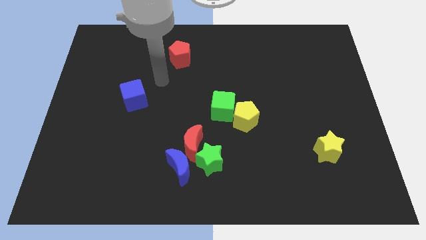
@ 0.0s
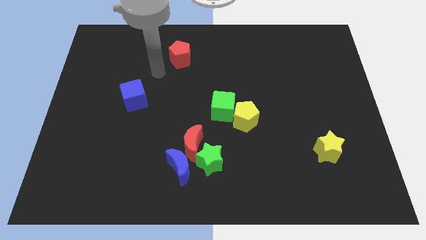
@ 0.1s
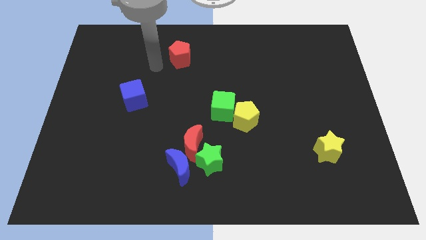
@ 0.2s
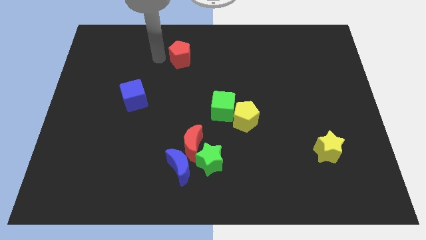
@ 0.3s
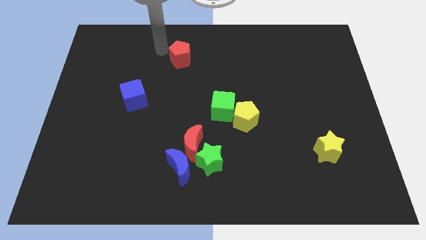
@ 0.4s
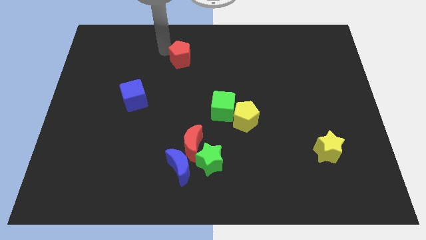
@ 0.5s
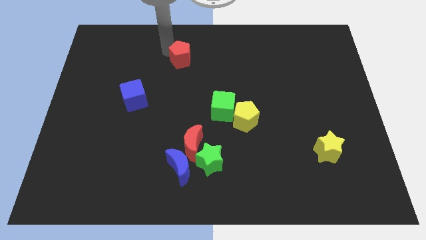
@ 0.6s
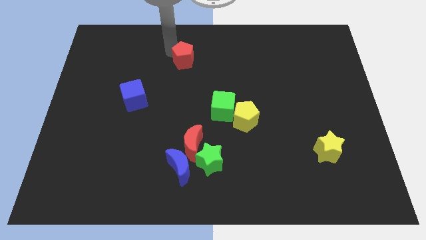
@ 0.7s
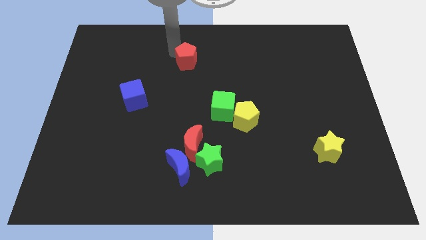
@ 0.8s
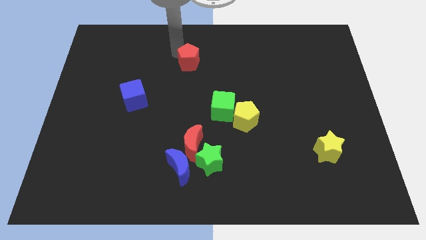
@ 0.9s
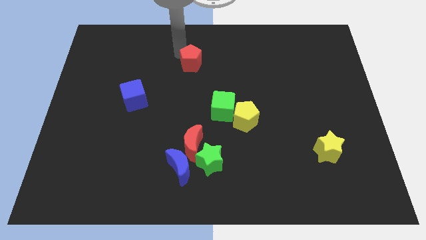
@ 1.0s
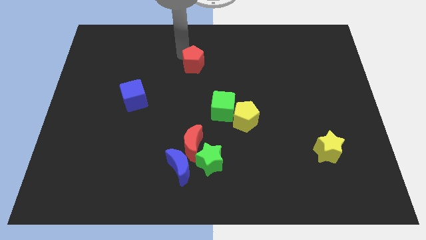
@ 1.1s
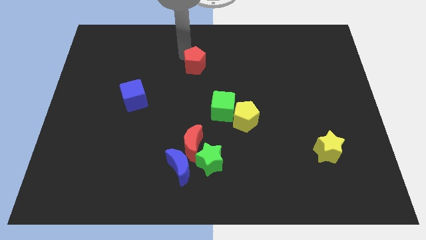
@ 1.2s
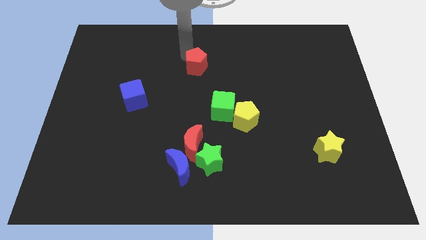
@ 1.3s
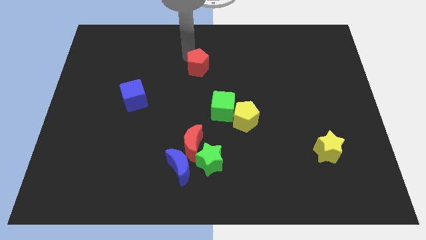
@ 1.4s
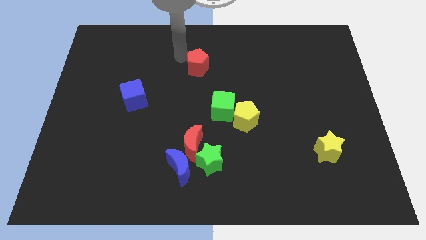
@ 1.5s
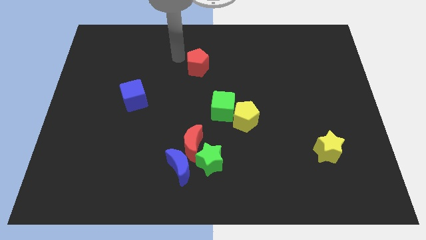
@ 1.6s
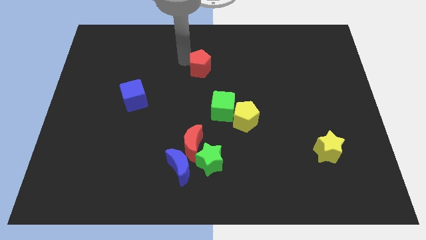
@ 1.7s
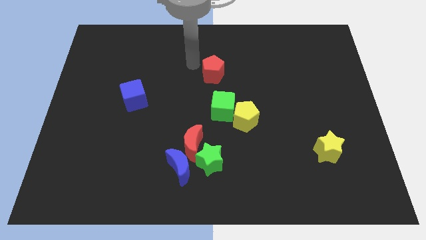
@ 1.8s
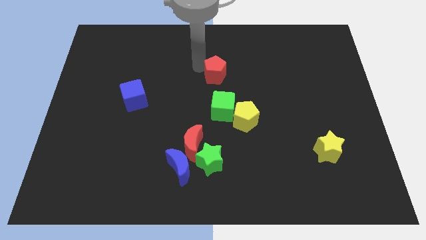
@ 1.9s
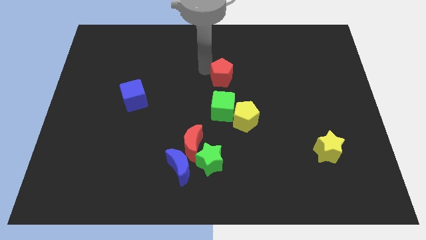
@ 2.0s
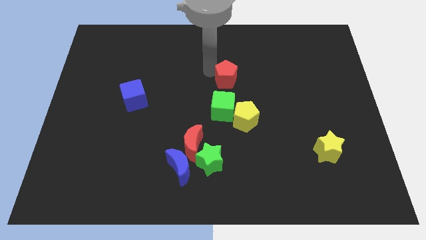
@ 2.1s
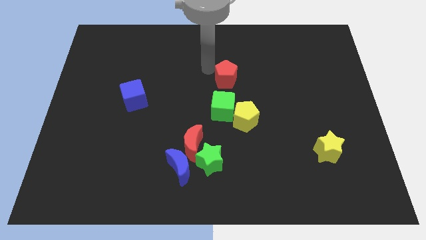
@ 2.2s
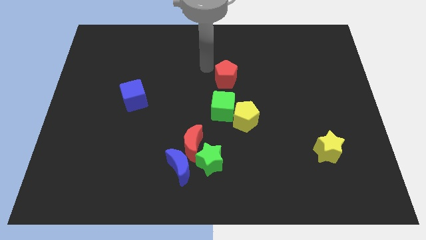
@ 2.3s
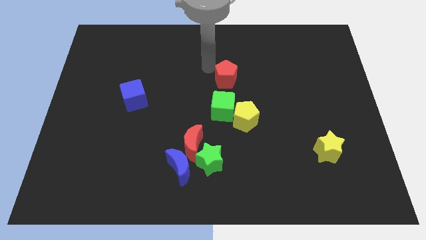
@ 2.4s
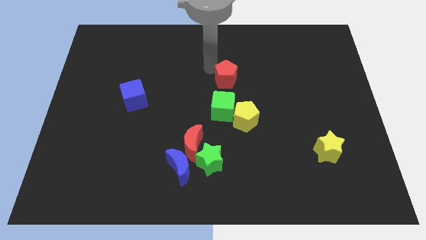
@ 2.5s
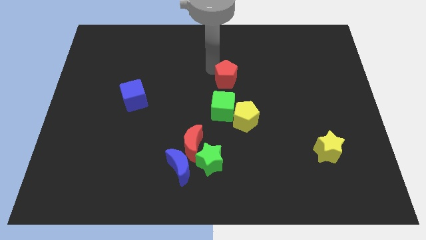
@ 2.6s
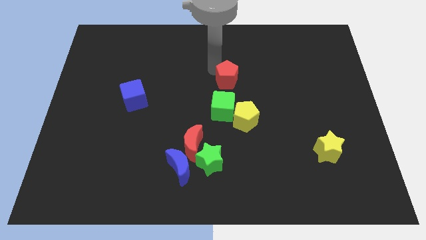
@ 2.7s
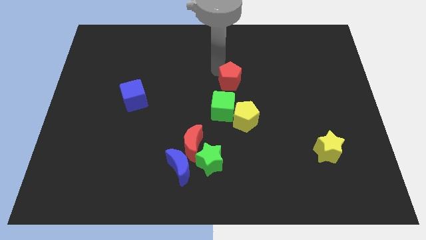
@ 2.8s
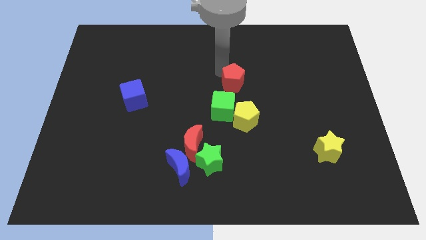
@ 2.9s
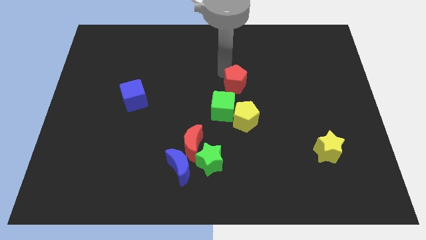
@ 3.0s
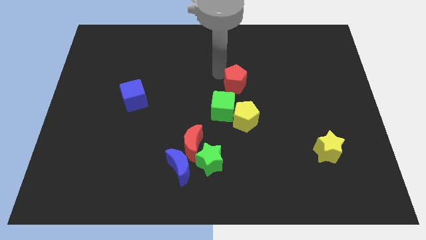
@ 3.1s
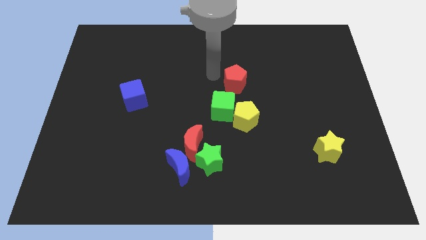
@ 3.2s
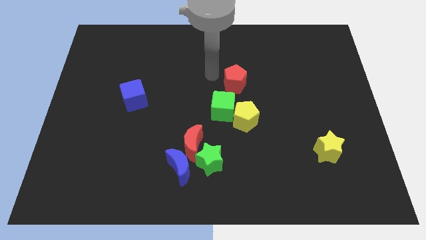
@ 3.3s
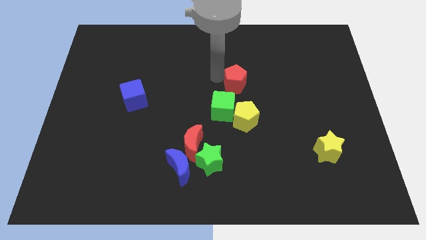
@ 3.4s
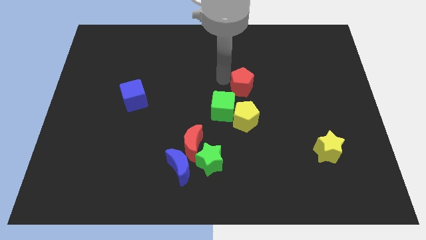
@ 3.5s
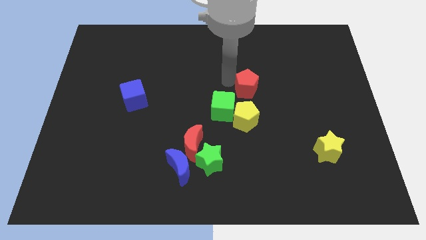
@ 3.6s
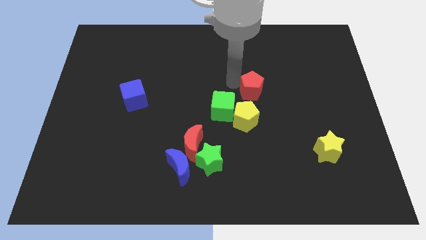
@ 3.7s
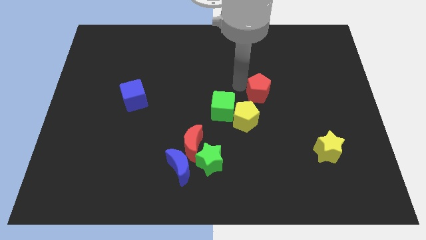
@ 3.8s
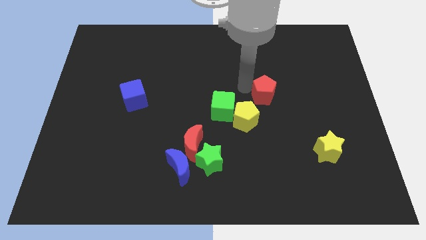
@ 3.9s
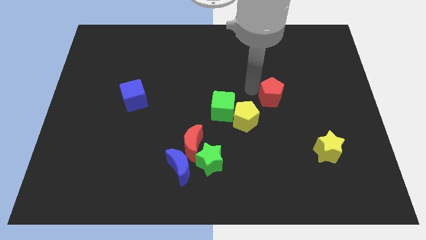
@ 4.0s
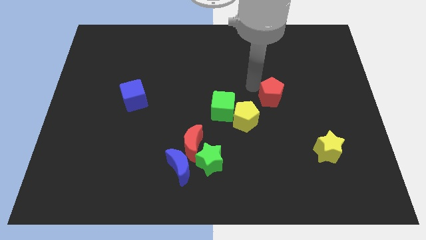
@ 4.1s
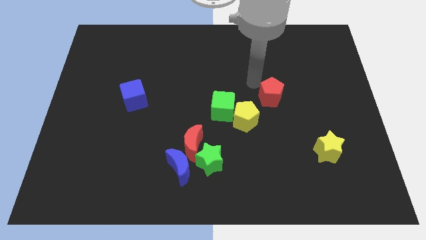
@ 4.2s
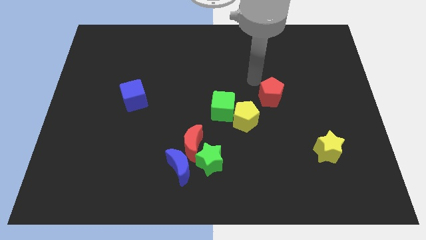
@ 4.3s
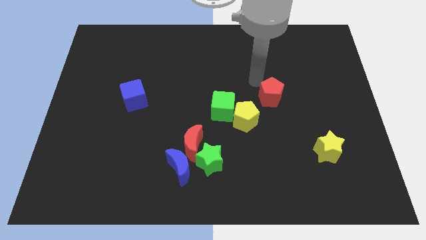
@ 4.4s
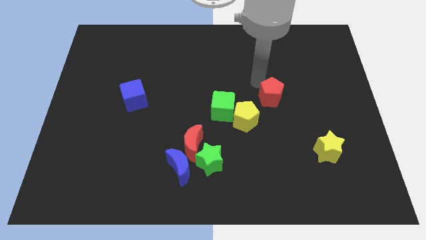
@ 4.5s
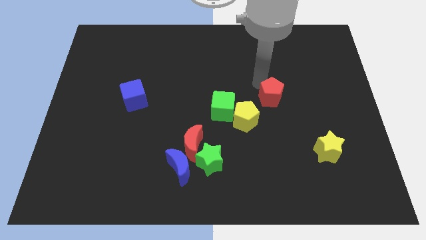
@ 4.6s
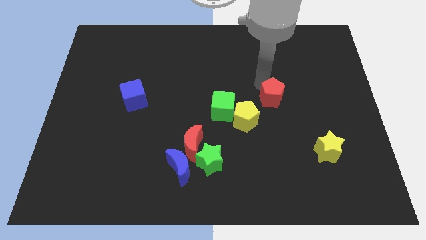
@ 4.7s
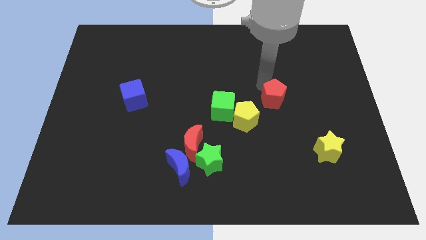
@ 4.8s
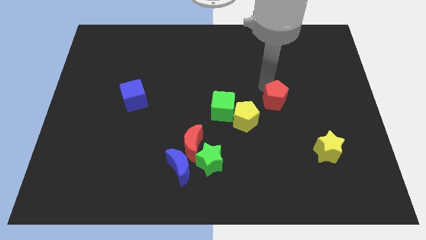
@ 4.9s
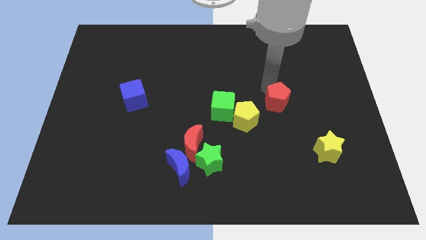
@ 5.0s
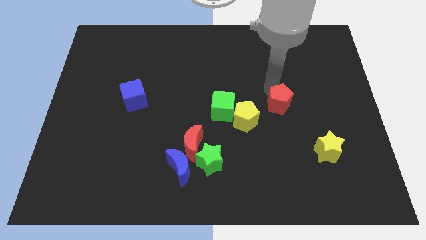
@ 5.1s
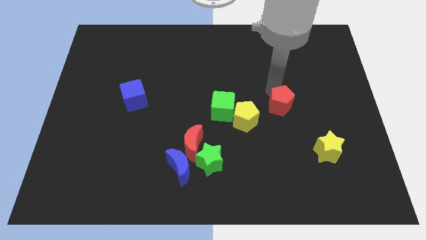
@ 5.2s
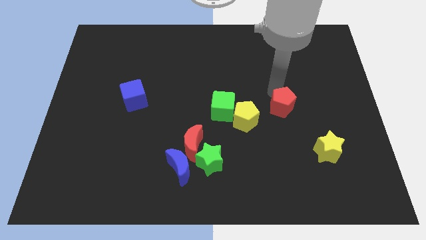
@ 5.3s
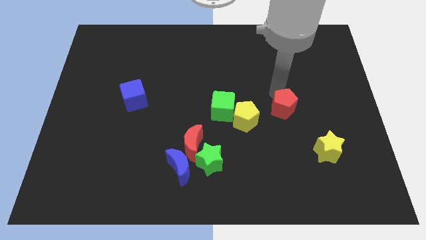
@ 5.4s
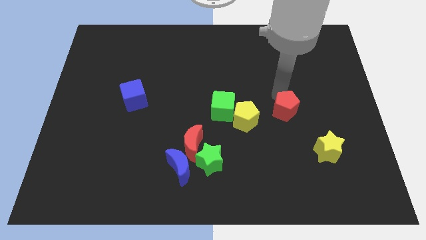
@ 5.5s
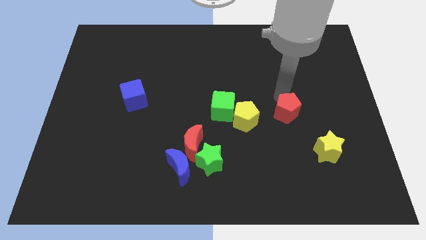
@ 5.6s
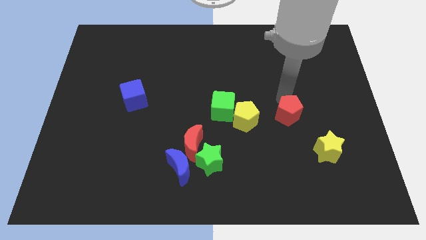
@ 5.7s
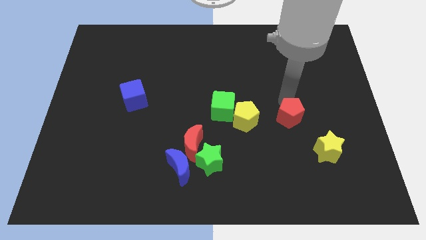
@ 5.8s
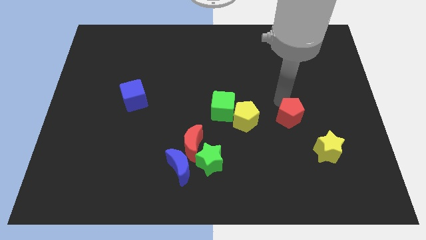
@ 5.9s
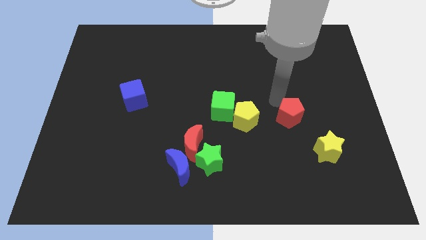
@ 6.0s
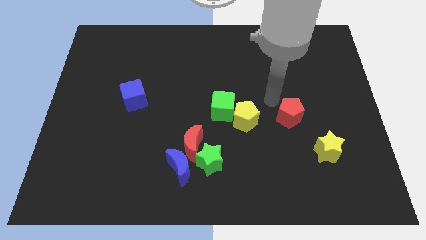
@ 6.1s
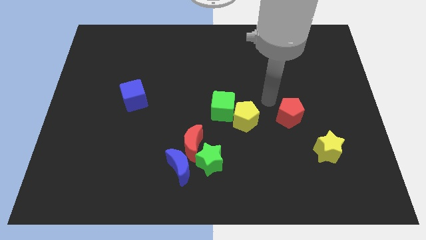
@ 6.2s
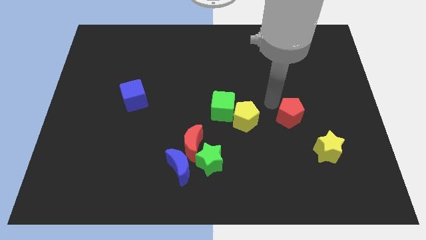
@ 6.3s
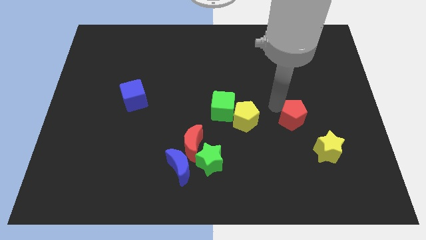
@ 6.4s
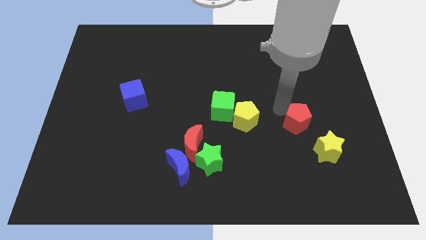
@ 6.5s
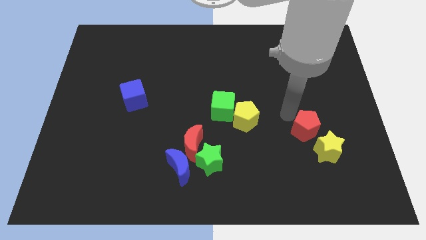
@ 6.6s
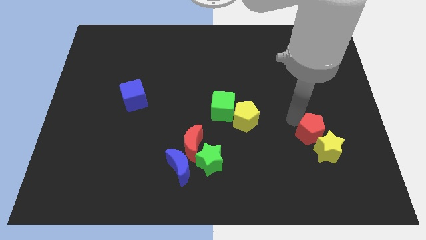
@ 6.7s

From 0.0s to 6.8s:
push the red pentagon towards the yellow star
